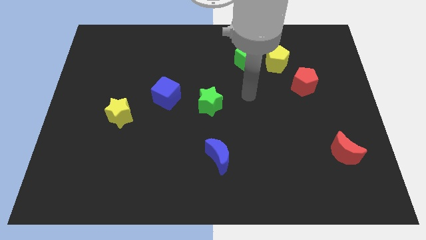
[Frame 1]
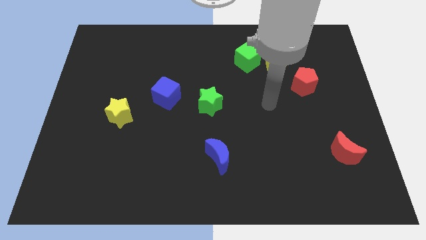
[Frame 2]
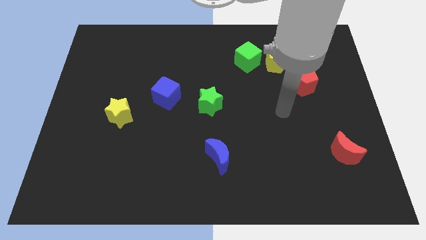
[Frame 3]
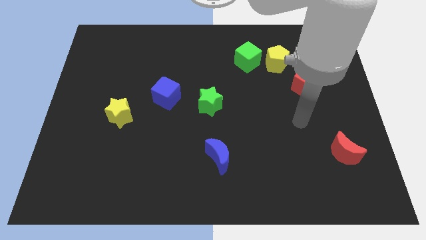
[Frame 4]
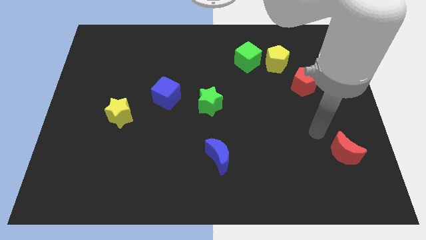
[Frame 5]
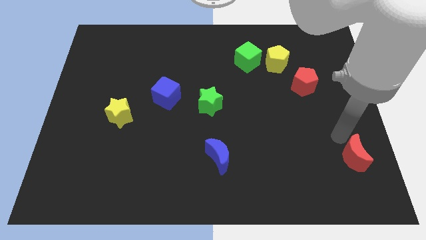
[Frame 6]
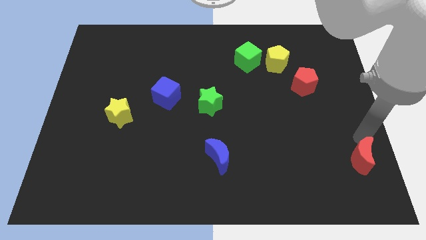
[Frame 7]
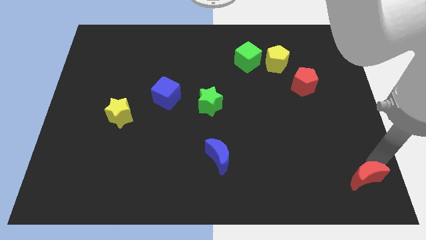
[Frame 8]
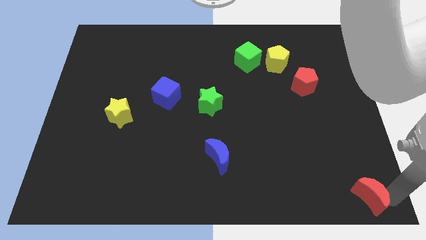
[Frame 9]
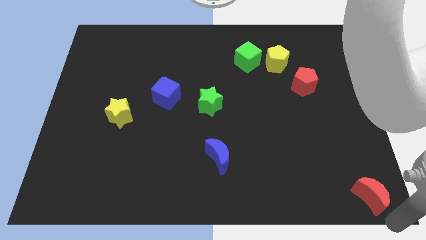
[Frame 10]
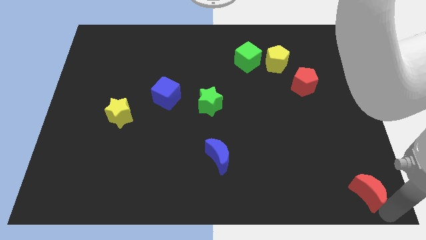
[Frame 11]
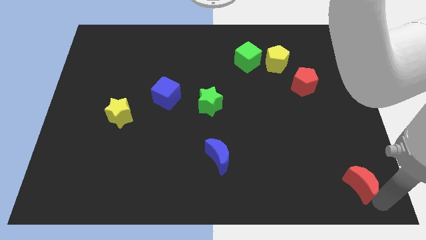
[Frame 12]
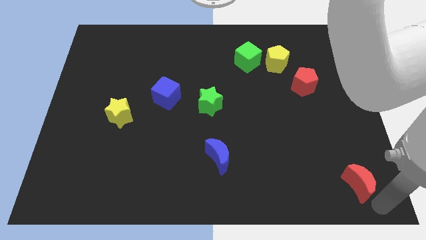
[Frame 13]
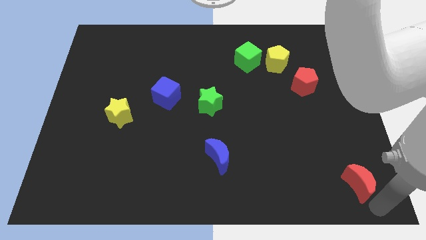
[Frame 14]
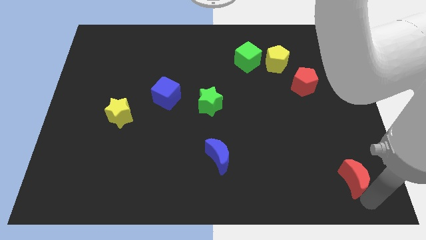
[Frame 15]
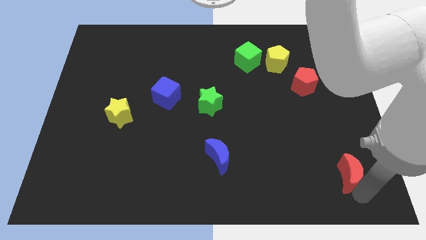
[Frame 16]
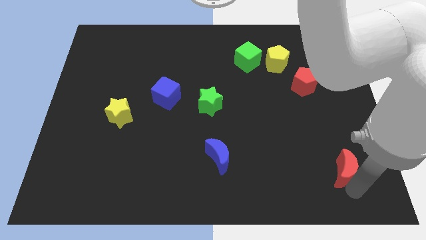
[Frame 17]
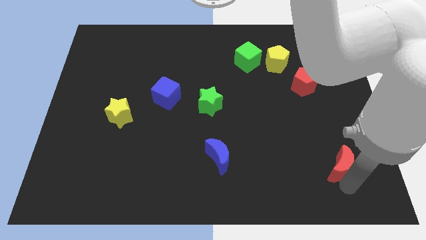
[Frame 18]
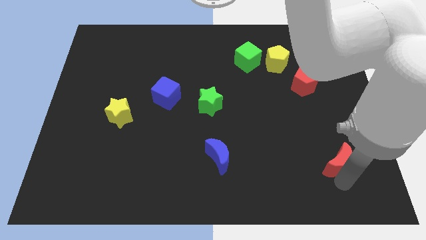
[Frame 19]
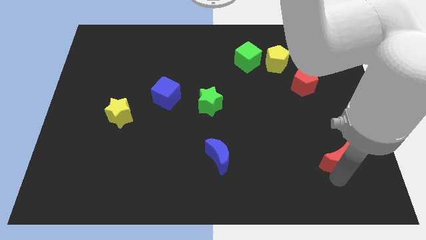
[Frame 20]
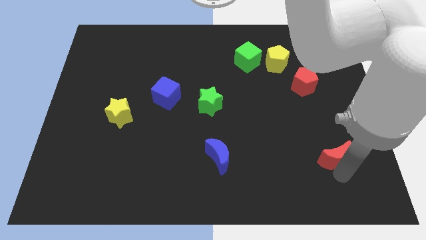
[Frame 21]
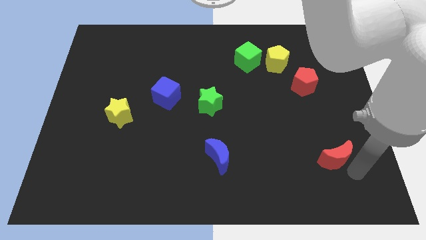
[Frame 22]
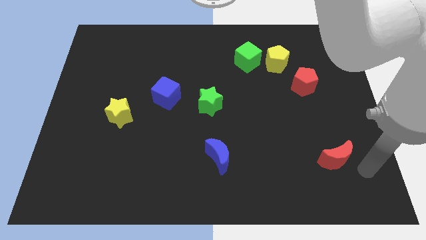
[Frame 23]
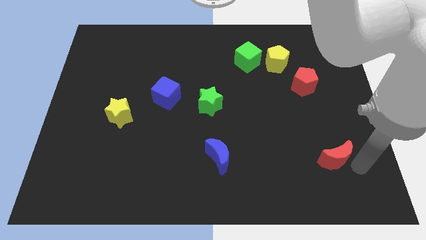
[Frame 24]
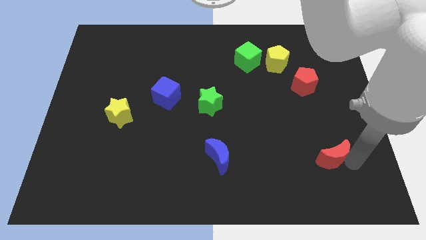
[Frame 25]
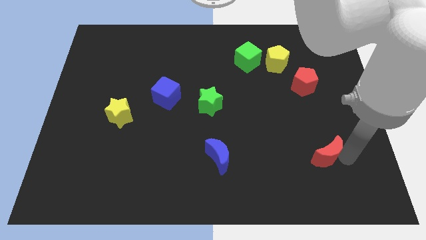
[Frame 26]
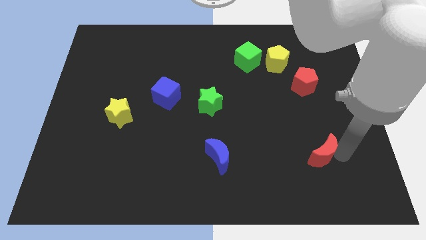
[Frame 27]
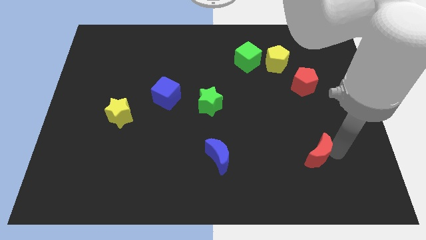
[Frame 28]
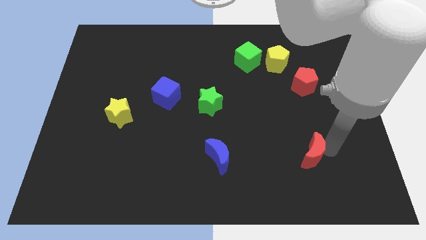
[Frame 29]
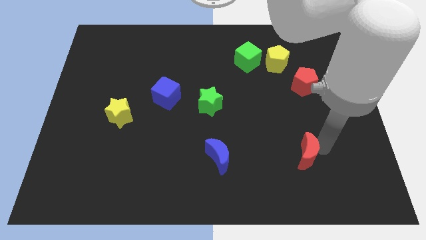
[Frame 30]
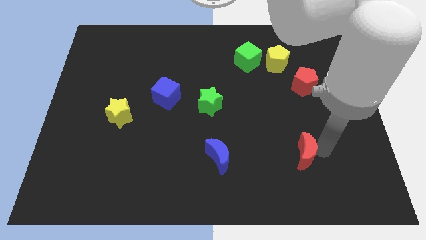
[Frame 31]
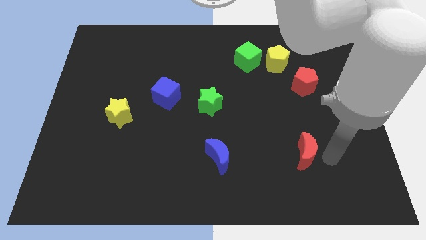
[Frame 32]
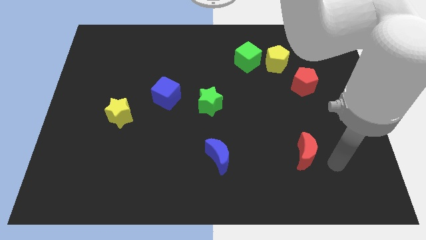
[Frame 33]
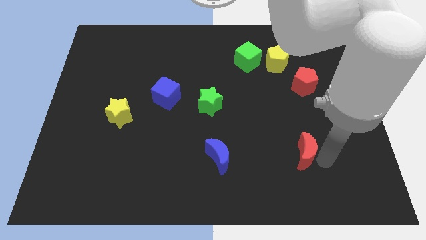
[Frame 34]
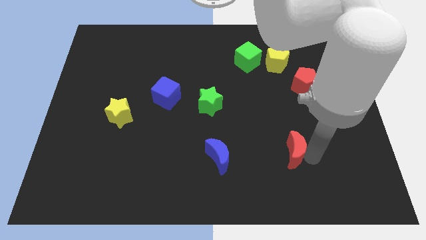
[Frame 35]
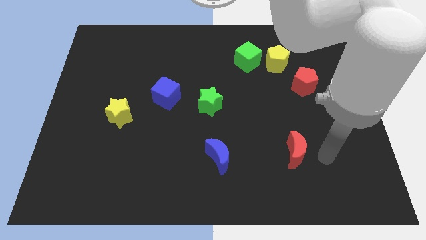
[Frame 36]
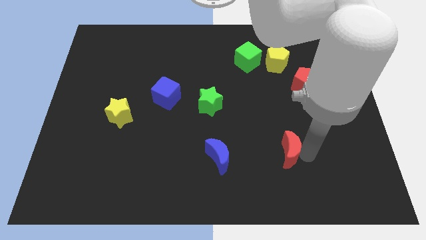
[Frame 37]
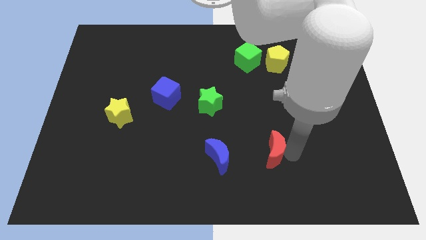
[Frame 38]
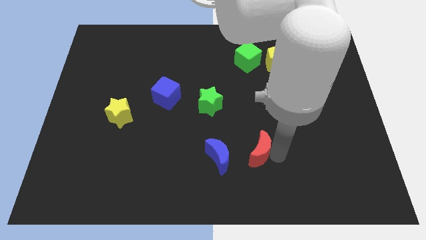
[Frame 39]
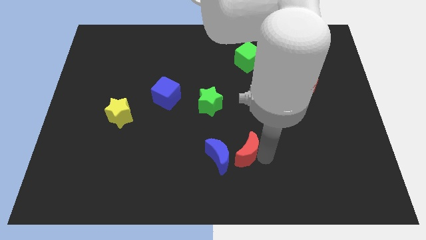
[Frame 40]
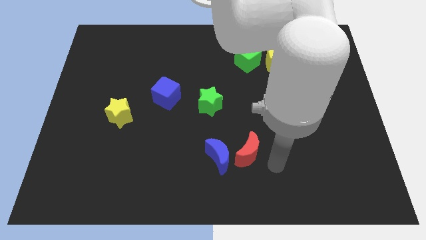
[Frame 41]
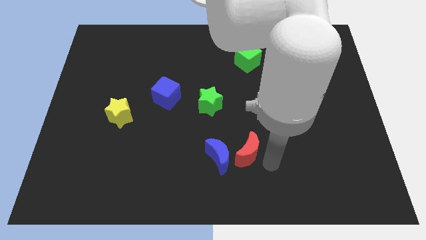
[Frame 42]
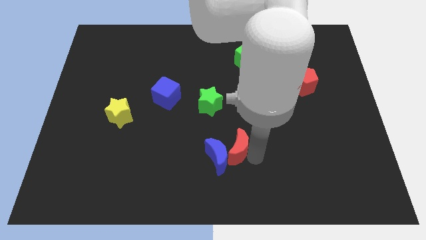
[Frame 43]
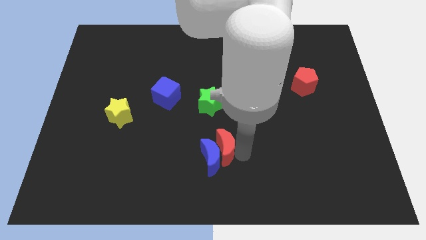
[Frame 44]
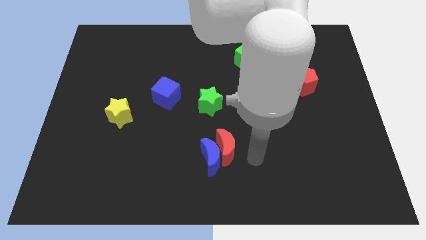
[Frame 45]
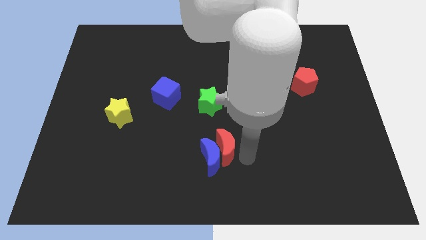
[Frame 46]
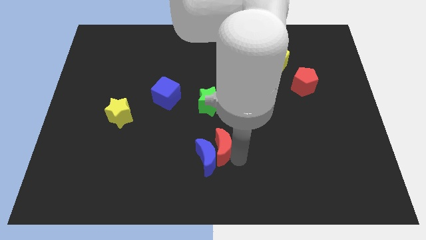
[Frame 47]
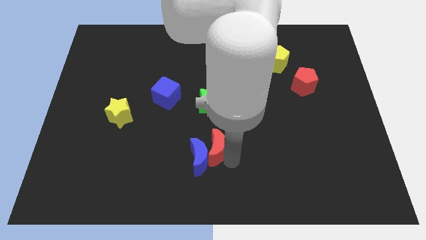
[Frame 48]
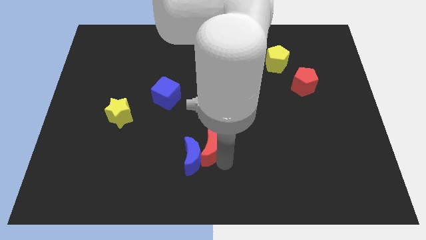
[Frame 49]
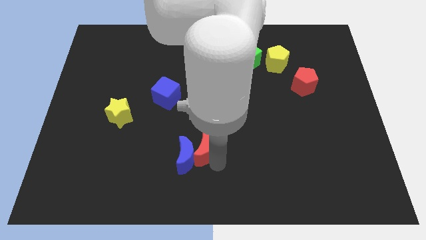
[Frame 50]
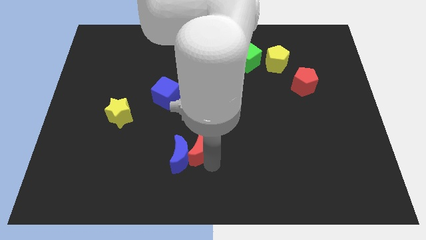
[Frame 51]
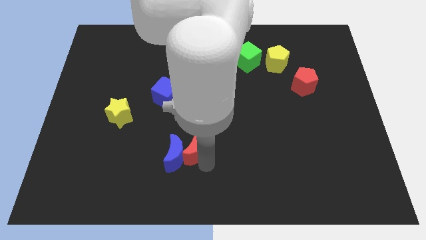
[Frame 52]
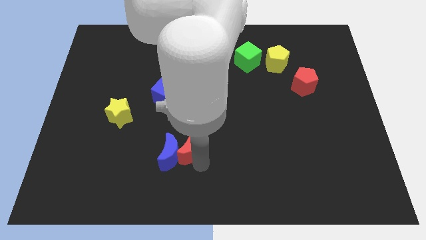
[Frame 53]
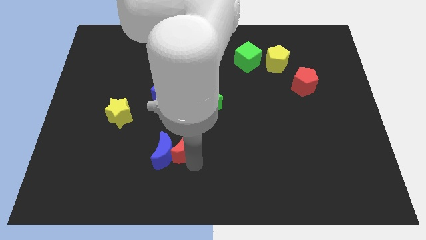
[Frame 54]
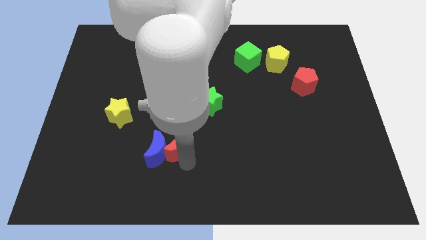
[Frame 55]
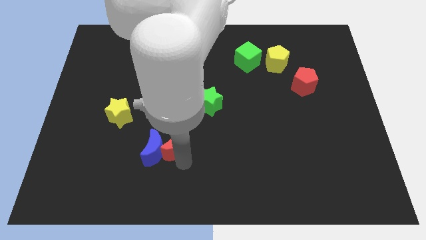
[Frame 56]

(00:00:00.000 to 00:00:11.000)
move the red moon to the bottom side of the blue cube
